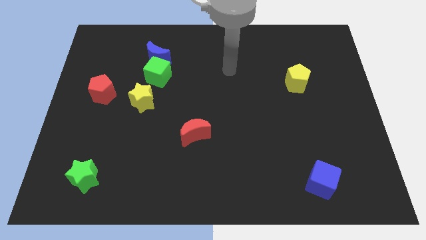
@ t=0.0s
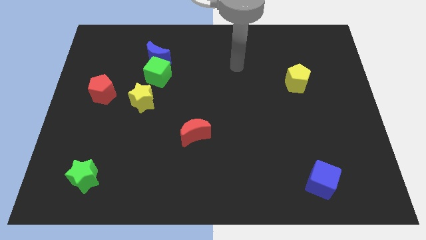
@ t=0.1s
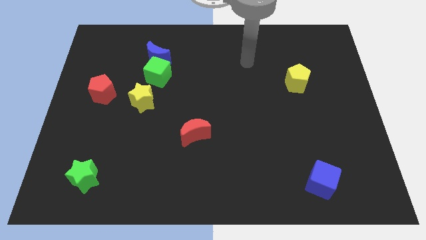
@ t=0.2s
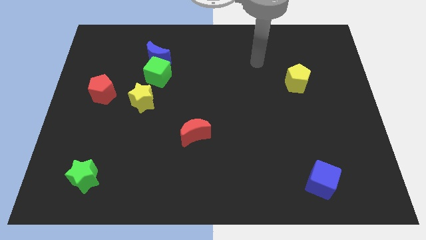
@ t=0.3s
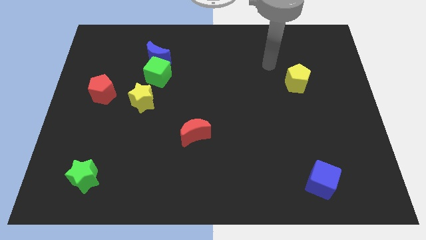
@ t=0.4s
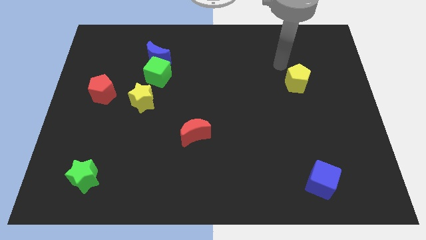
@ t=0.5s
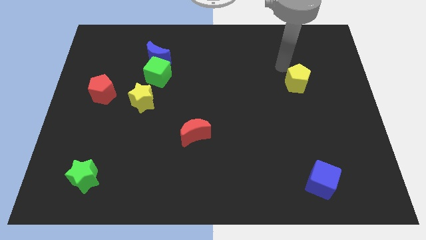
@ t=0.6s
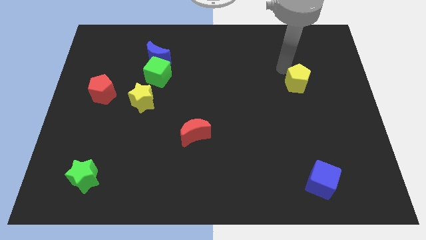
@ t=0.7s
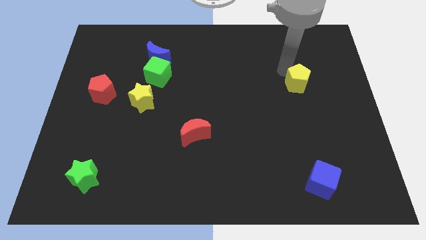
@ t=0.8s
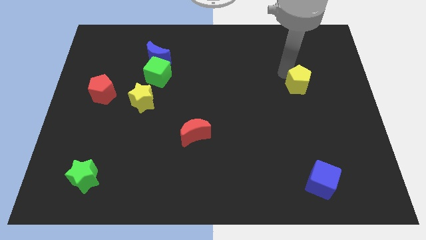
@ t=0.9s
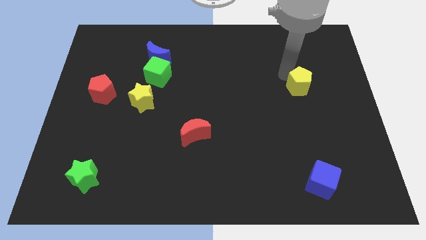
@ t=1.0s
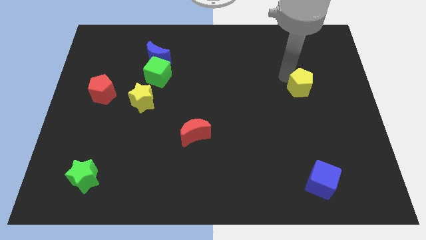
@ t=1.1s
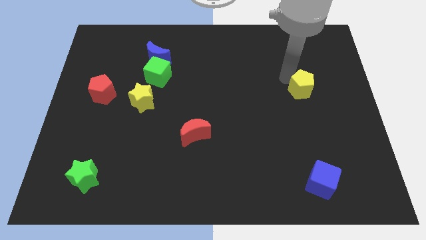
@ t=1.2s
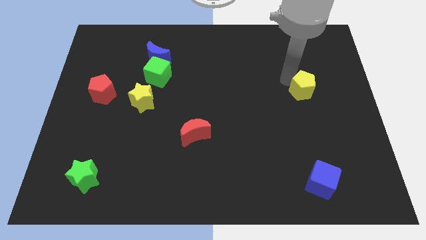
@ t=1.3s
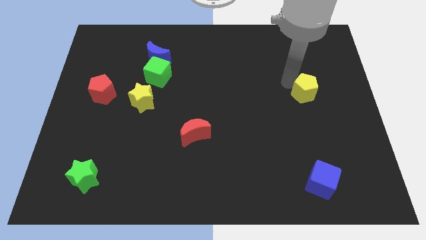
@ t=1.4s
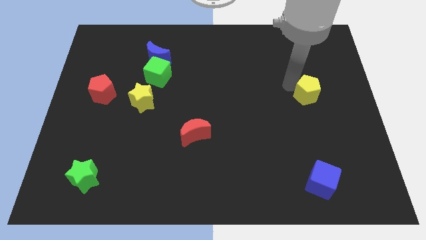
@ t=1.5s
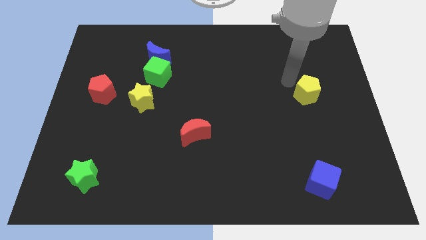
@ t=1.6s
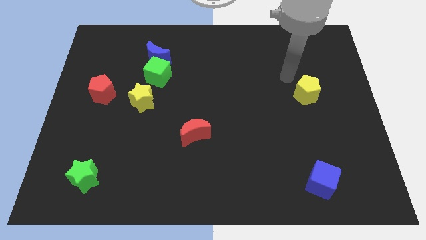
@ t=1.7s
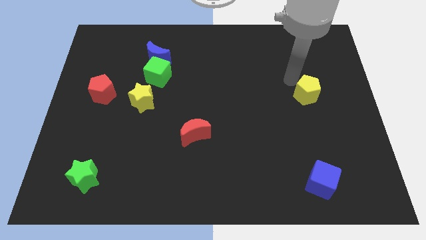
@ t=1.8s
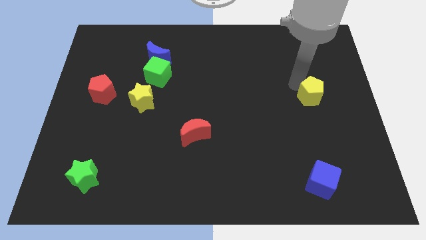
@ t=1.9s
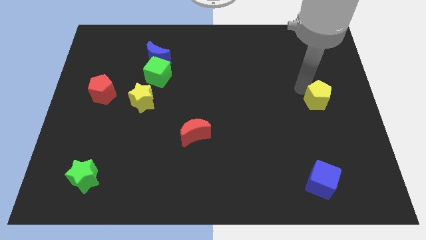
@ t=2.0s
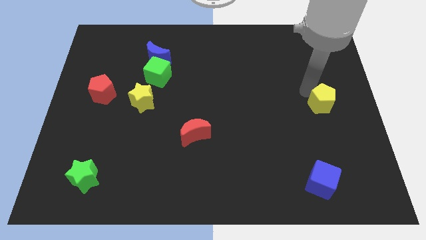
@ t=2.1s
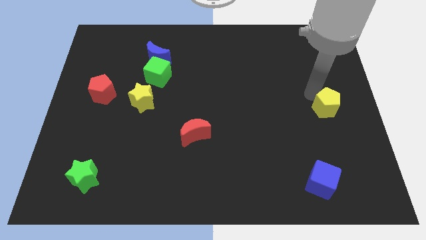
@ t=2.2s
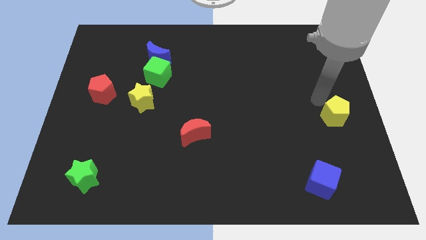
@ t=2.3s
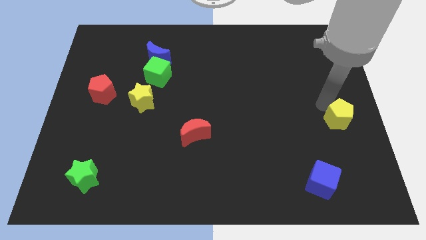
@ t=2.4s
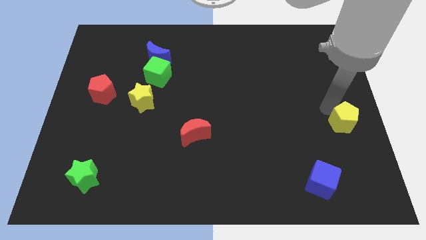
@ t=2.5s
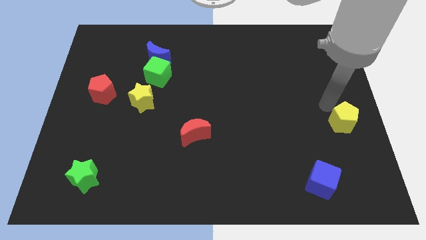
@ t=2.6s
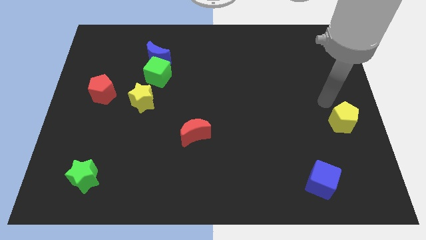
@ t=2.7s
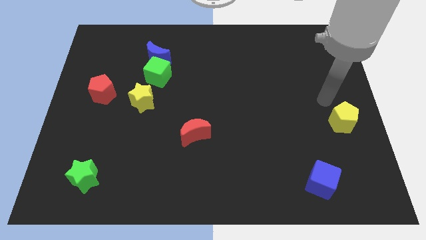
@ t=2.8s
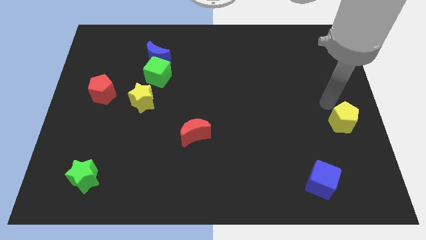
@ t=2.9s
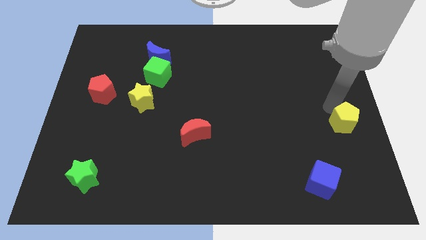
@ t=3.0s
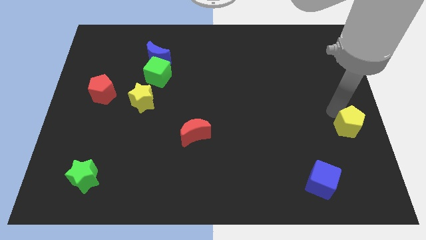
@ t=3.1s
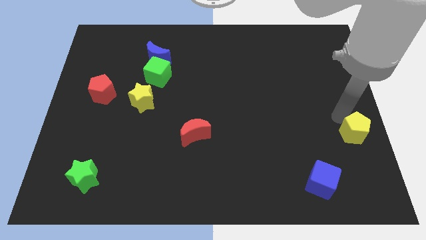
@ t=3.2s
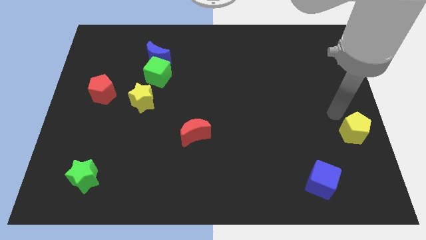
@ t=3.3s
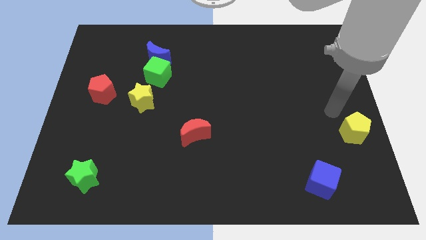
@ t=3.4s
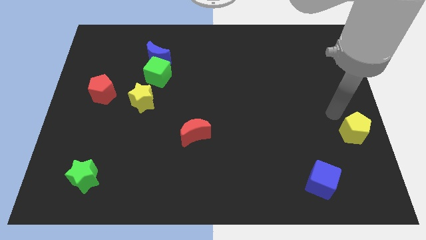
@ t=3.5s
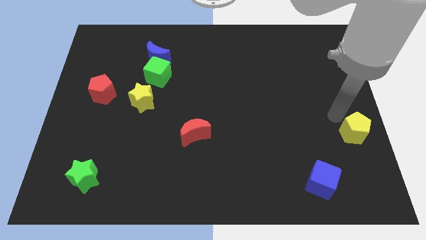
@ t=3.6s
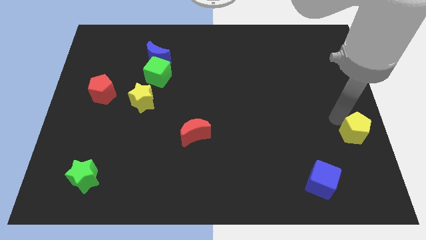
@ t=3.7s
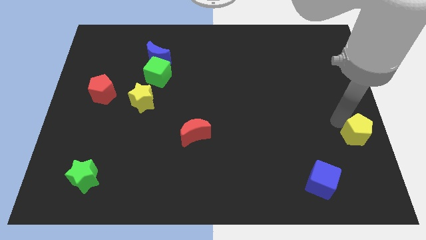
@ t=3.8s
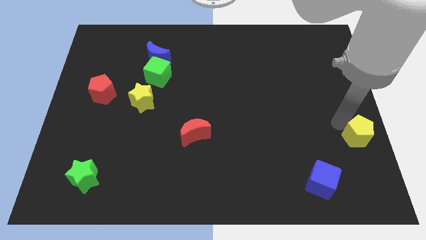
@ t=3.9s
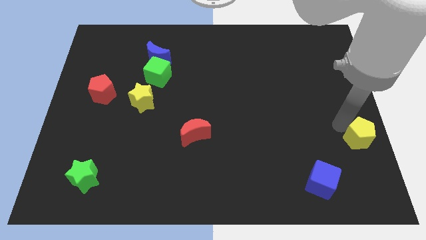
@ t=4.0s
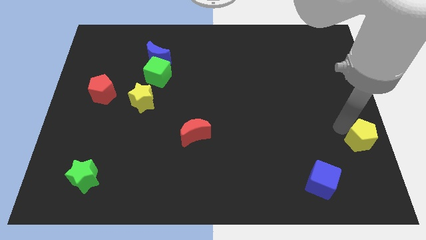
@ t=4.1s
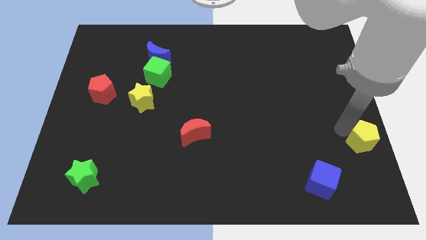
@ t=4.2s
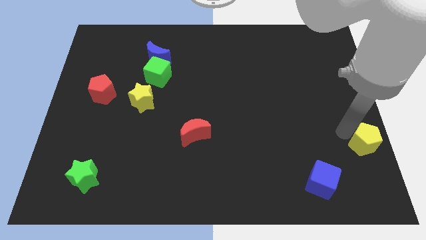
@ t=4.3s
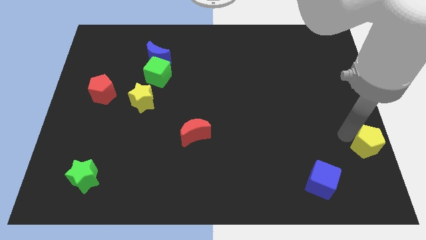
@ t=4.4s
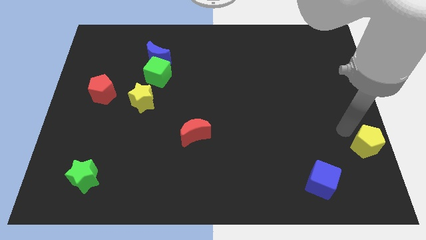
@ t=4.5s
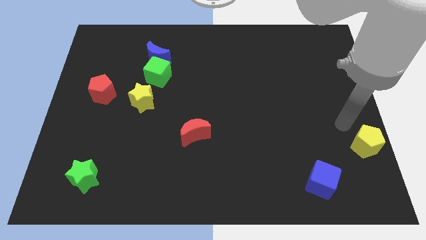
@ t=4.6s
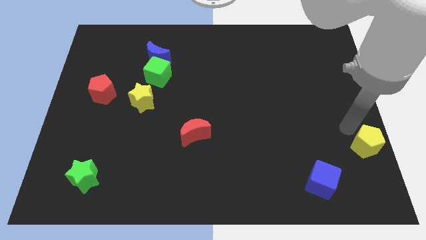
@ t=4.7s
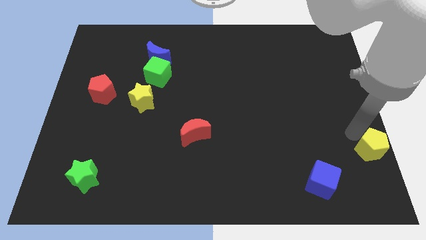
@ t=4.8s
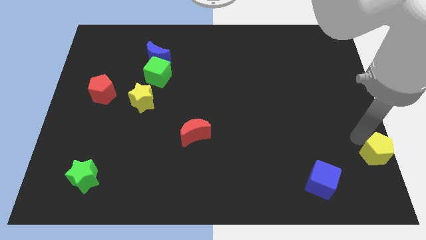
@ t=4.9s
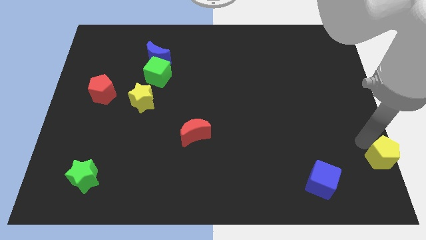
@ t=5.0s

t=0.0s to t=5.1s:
push the yellow pentagon to the lower right corner

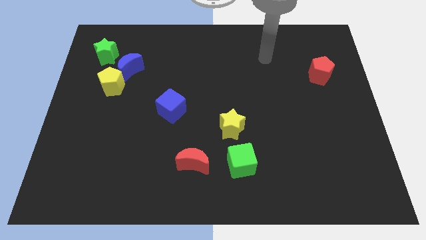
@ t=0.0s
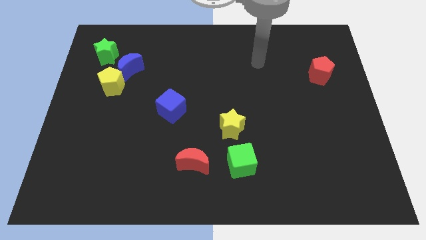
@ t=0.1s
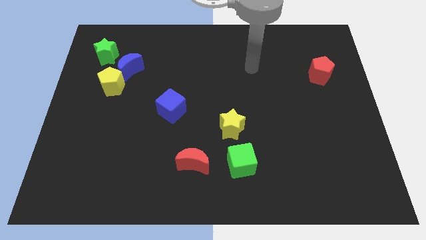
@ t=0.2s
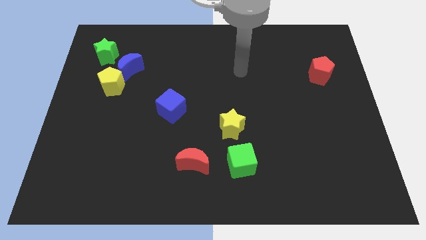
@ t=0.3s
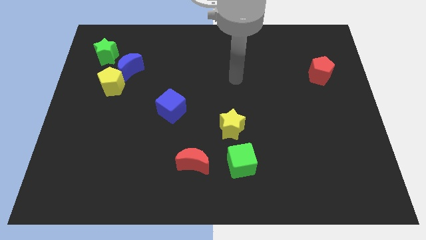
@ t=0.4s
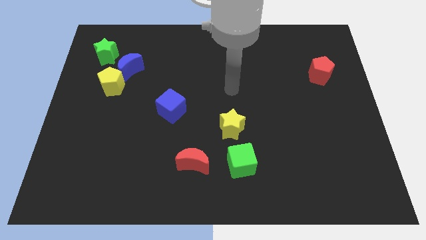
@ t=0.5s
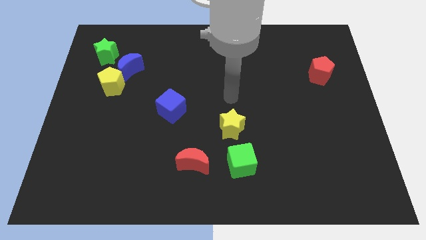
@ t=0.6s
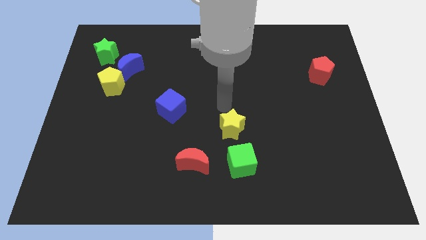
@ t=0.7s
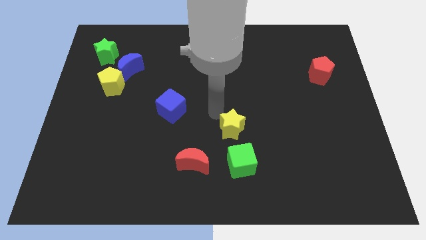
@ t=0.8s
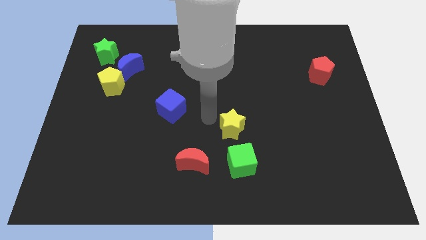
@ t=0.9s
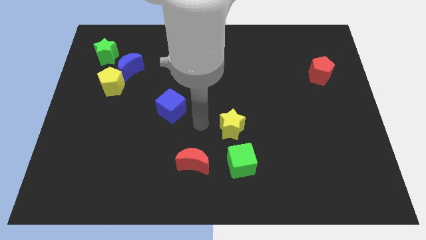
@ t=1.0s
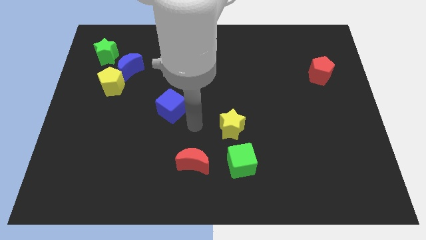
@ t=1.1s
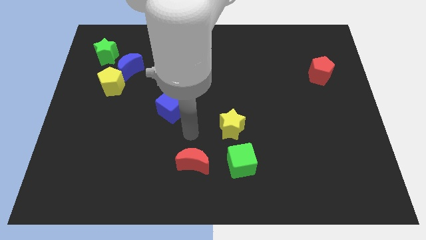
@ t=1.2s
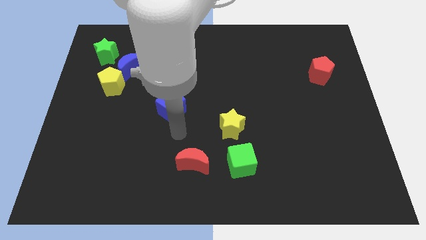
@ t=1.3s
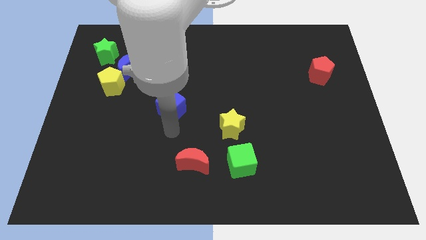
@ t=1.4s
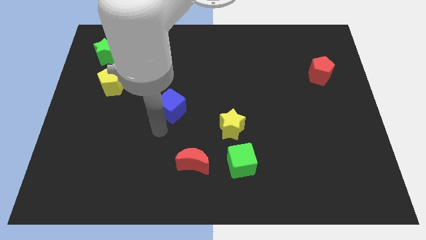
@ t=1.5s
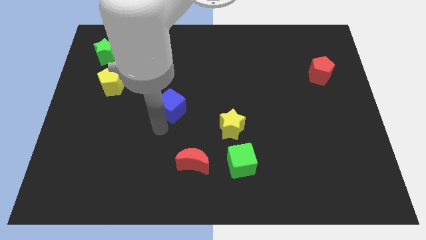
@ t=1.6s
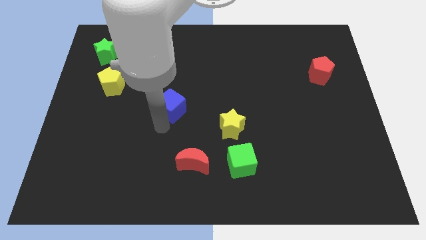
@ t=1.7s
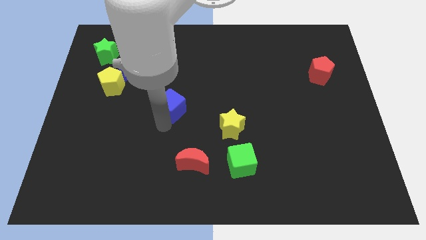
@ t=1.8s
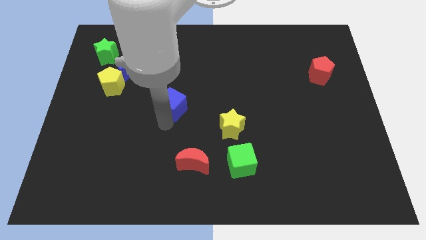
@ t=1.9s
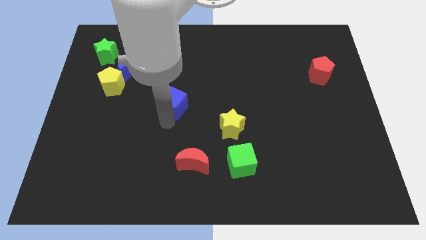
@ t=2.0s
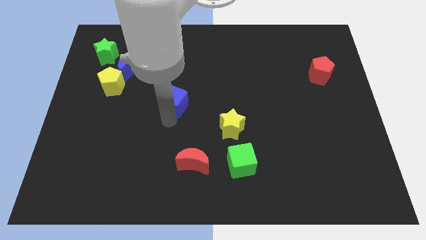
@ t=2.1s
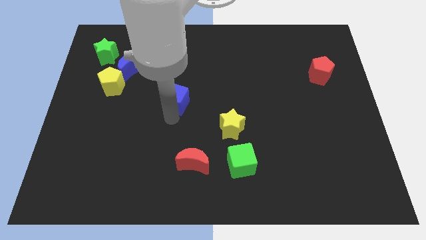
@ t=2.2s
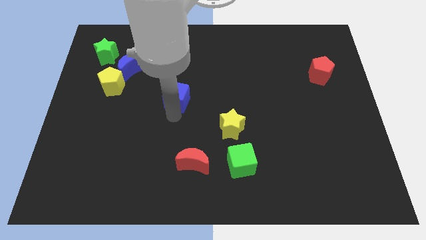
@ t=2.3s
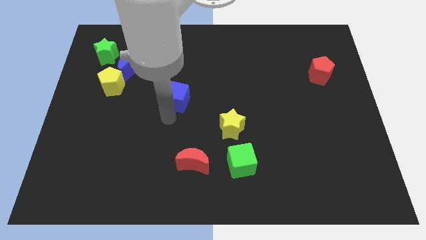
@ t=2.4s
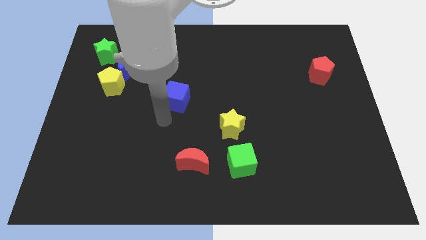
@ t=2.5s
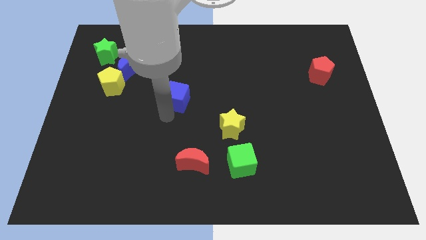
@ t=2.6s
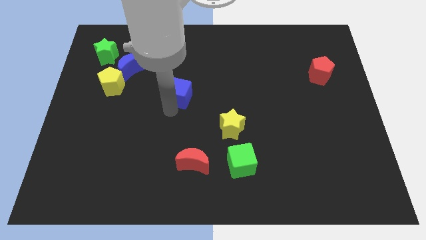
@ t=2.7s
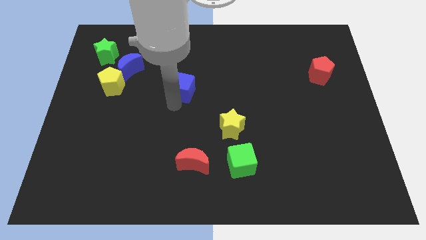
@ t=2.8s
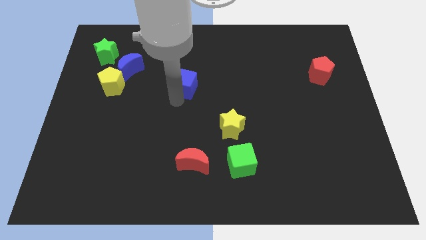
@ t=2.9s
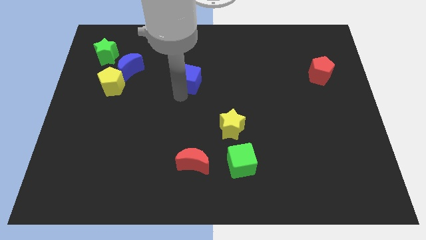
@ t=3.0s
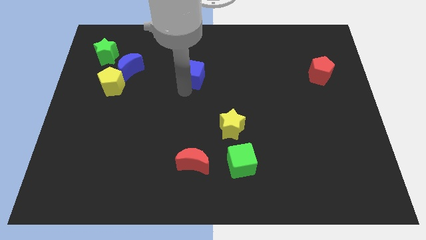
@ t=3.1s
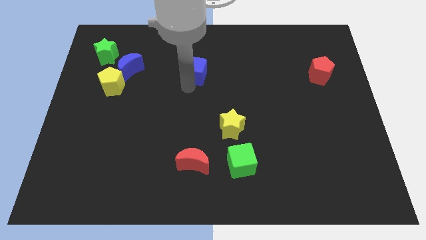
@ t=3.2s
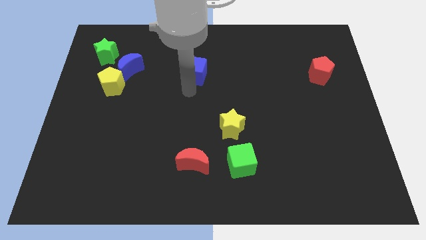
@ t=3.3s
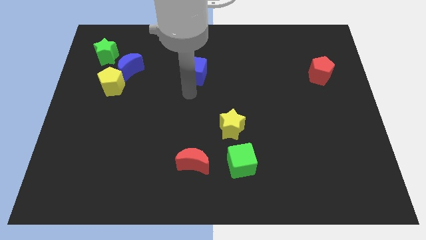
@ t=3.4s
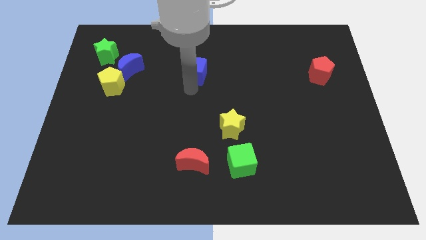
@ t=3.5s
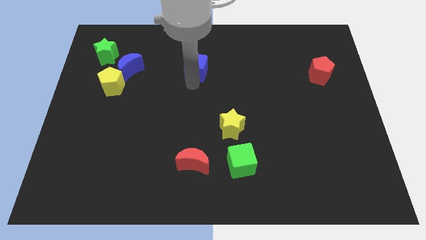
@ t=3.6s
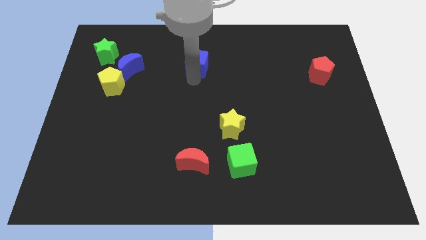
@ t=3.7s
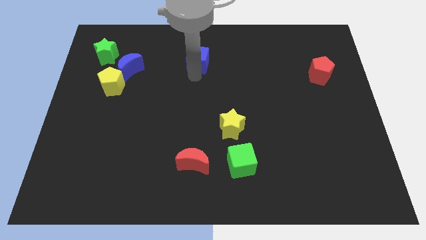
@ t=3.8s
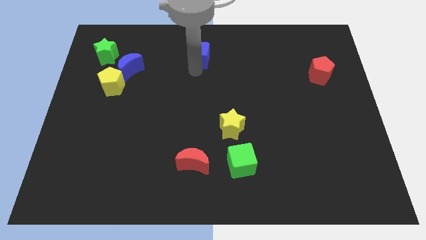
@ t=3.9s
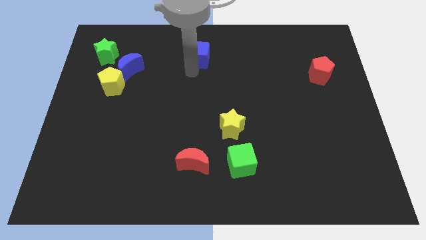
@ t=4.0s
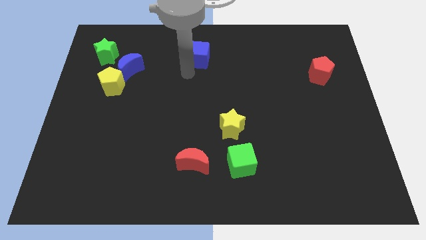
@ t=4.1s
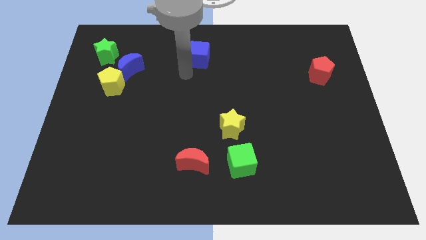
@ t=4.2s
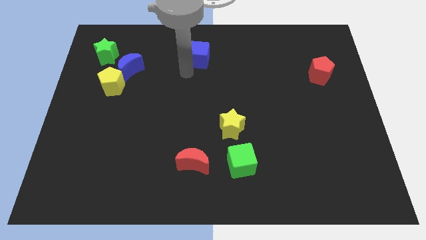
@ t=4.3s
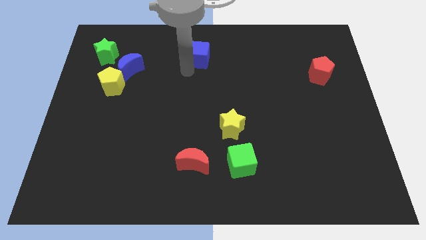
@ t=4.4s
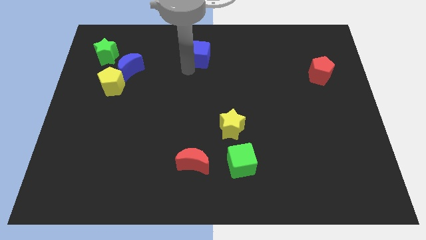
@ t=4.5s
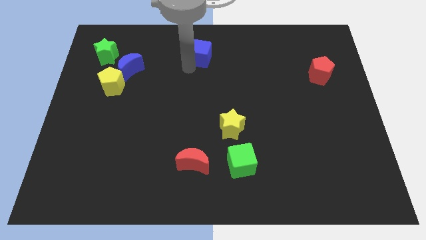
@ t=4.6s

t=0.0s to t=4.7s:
push the blue cube to the towards your base
